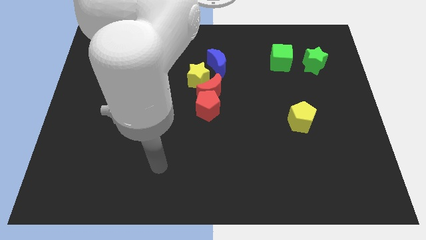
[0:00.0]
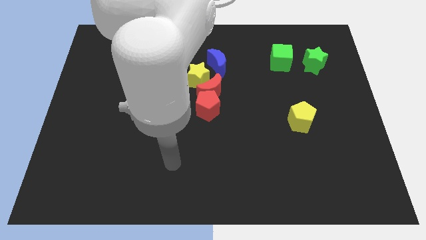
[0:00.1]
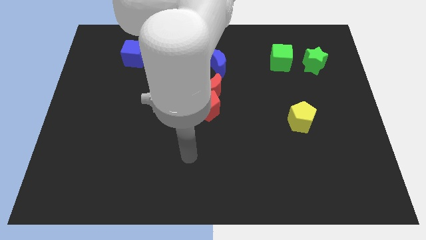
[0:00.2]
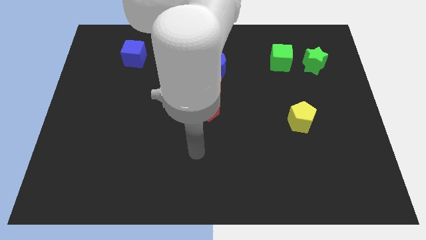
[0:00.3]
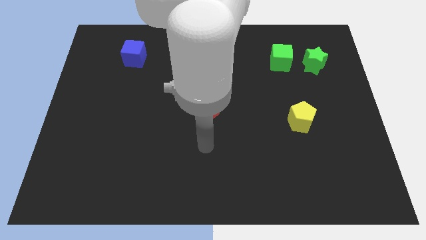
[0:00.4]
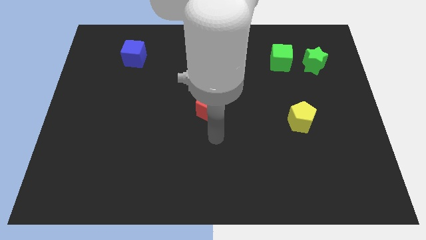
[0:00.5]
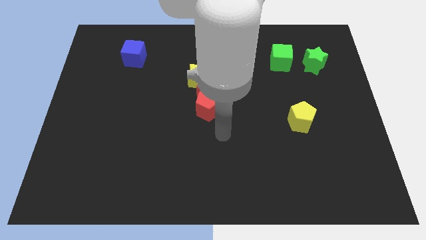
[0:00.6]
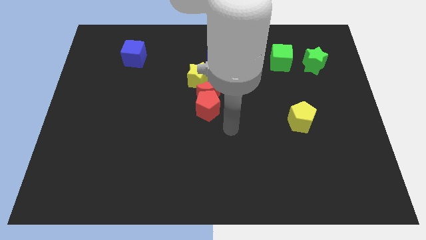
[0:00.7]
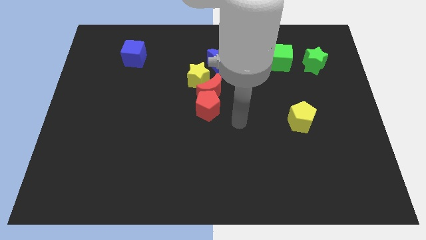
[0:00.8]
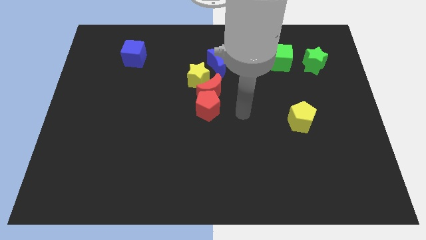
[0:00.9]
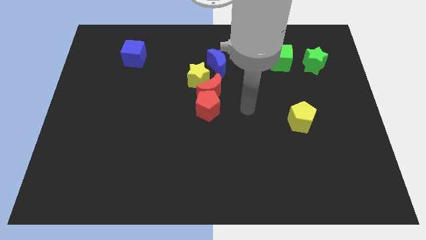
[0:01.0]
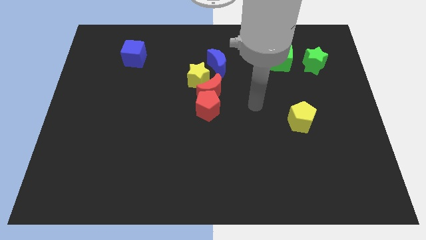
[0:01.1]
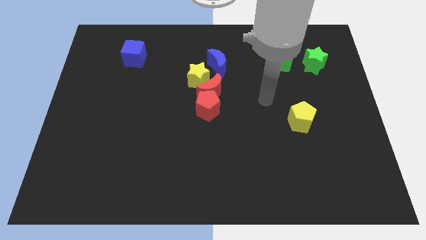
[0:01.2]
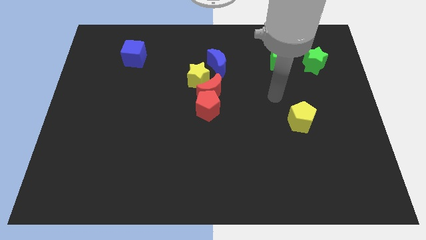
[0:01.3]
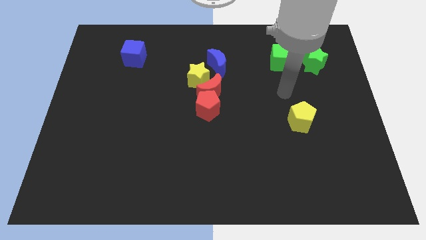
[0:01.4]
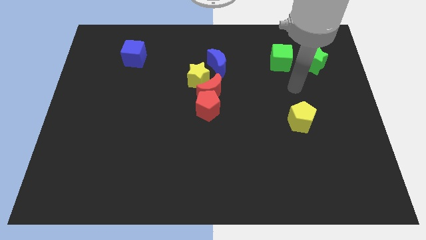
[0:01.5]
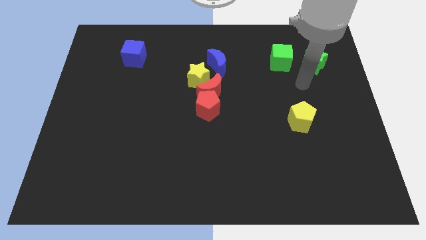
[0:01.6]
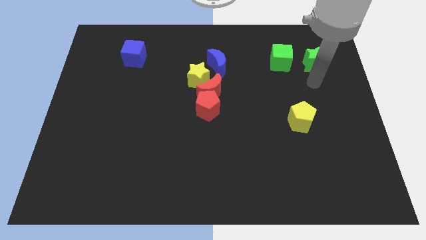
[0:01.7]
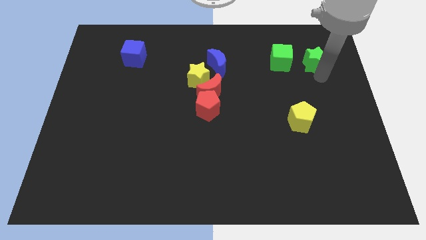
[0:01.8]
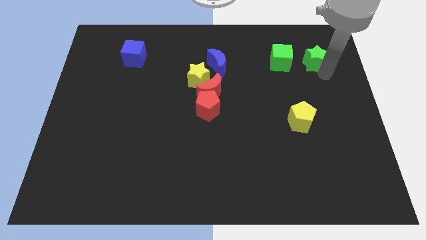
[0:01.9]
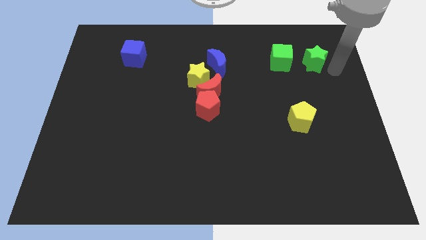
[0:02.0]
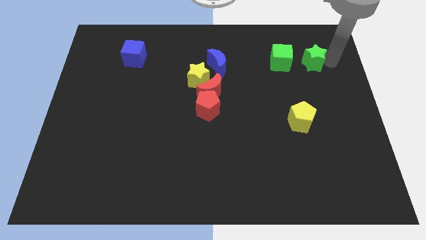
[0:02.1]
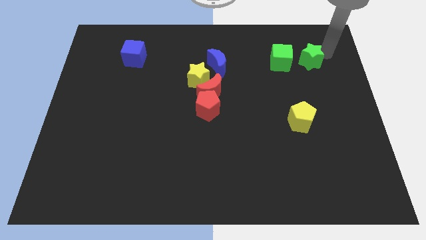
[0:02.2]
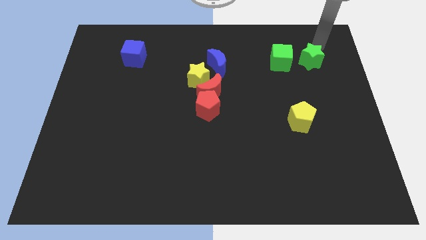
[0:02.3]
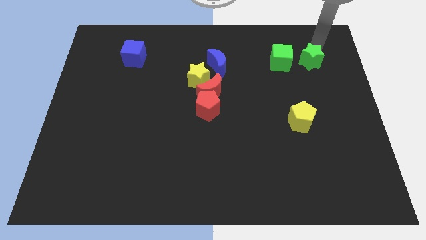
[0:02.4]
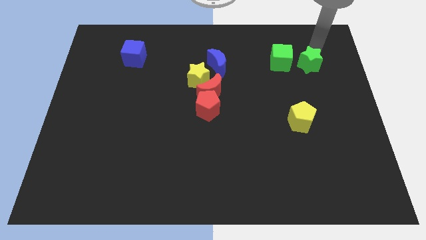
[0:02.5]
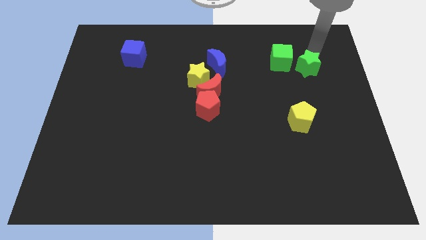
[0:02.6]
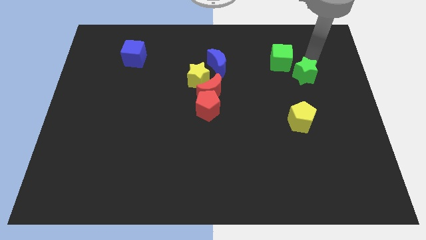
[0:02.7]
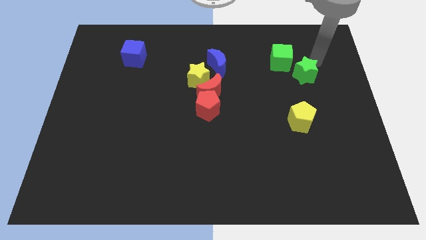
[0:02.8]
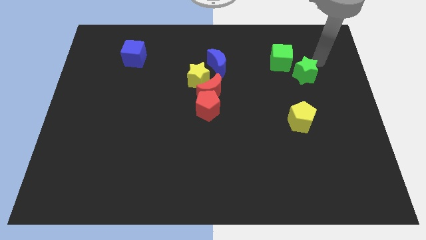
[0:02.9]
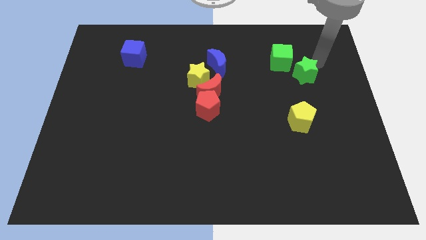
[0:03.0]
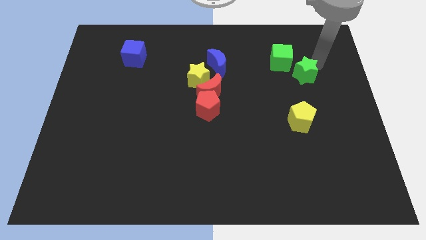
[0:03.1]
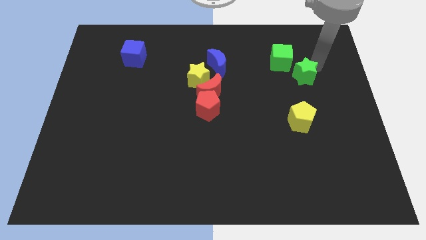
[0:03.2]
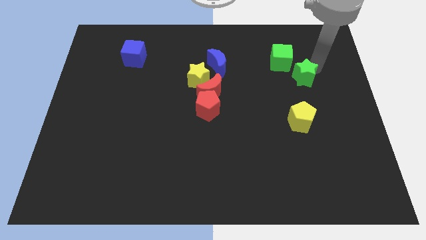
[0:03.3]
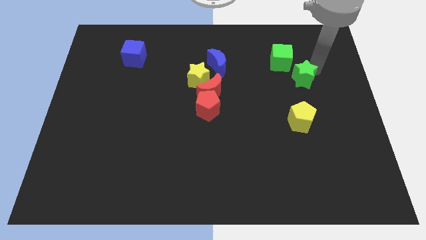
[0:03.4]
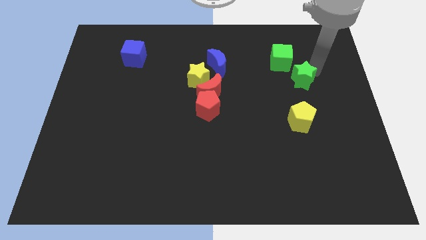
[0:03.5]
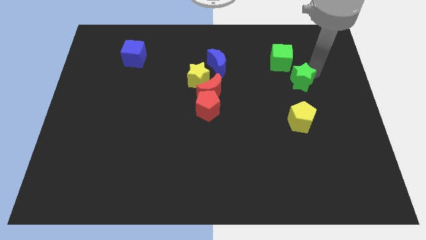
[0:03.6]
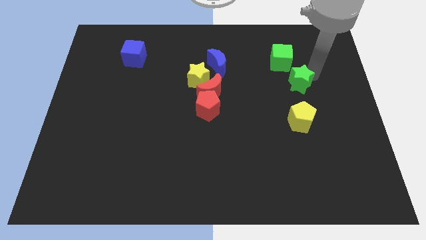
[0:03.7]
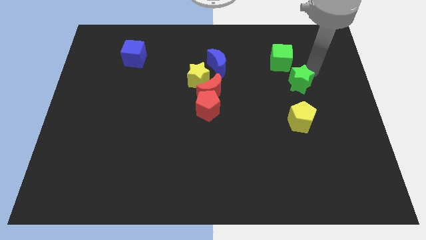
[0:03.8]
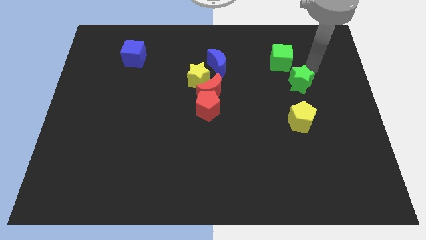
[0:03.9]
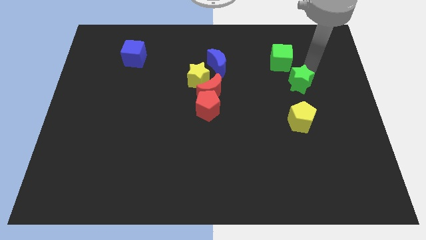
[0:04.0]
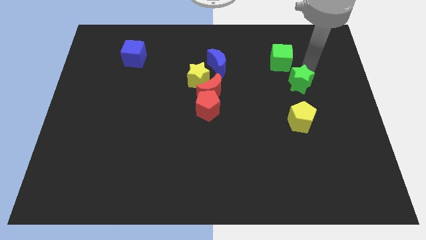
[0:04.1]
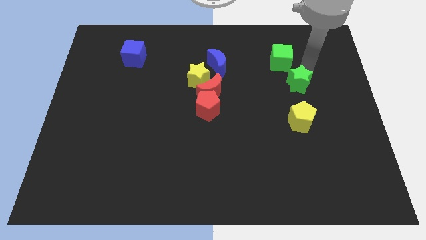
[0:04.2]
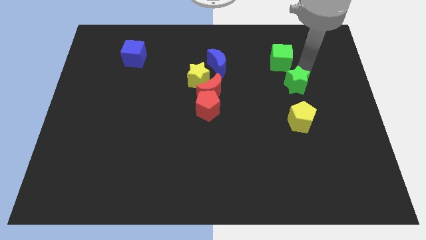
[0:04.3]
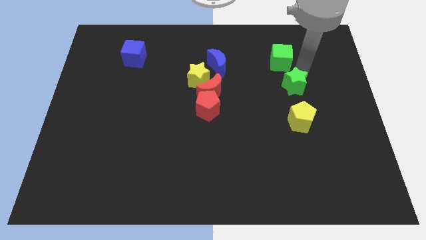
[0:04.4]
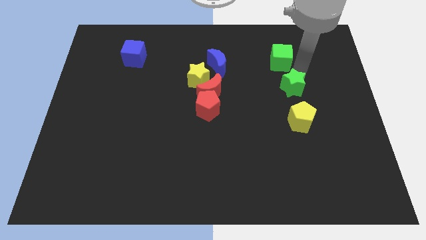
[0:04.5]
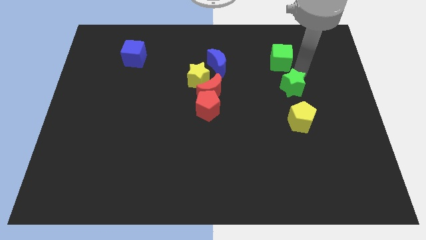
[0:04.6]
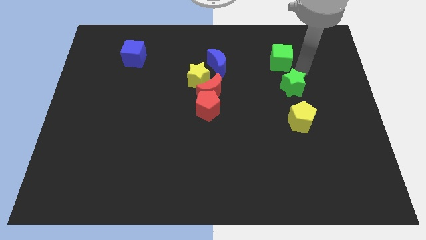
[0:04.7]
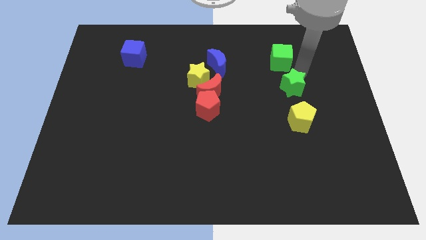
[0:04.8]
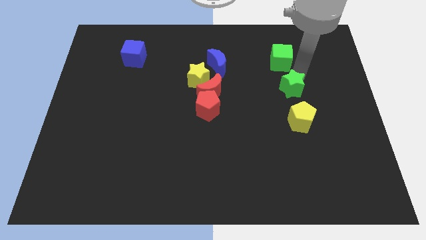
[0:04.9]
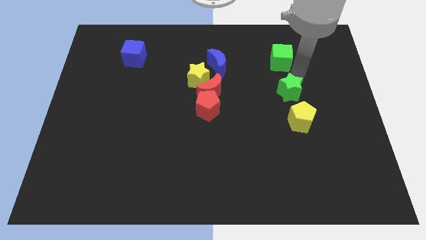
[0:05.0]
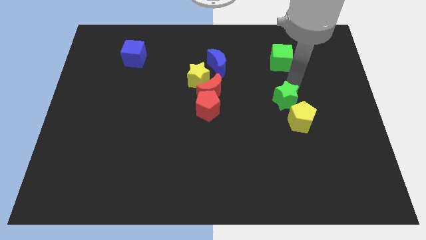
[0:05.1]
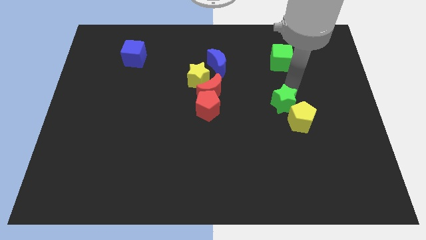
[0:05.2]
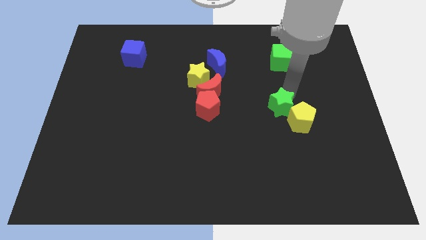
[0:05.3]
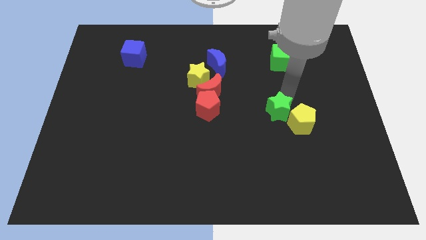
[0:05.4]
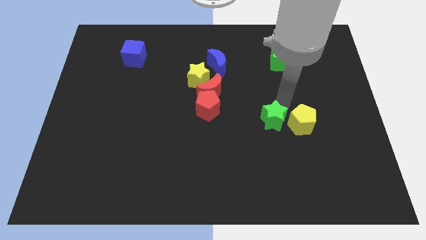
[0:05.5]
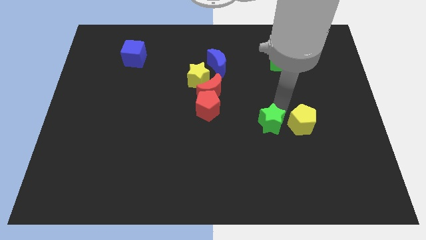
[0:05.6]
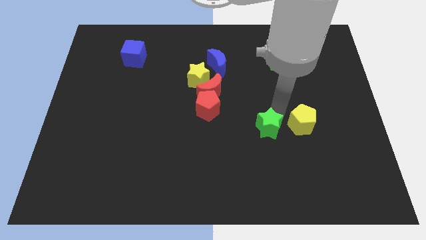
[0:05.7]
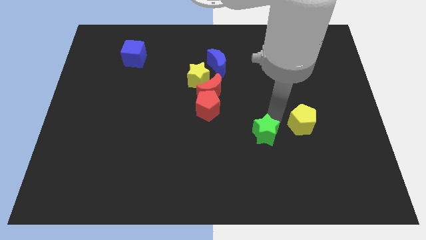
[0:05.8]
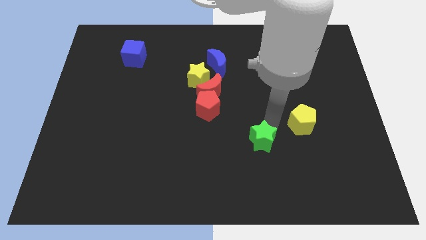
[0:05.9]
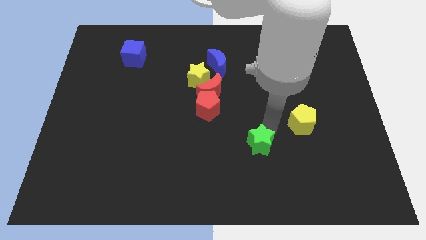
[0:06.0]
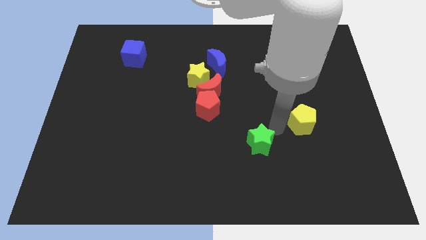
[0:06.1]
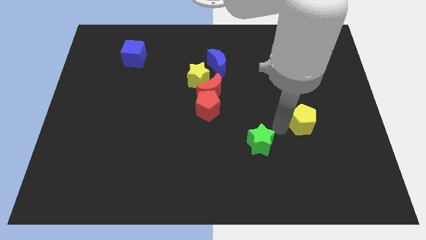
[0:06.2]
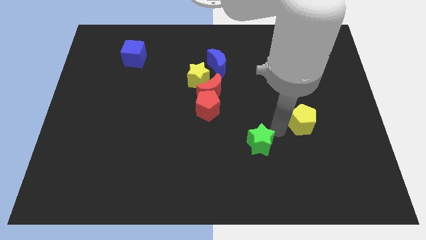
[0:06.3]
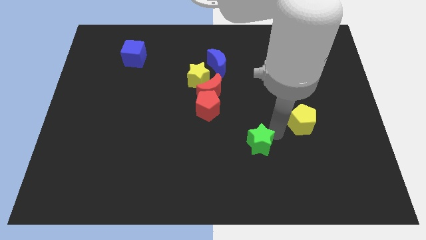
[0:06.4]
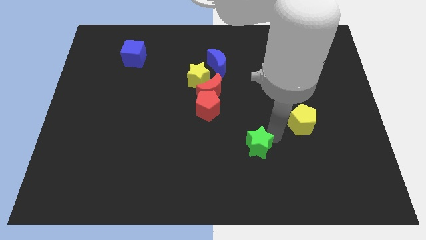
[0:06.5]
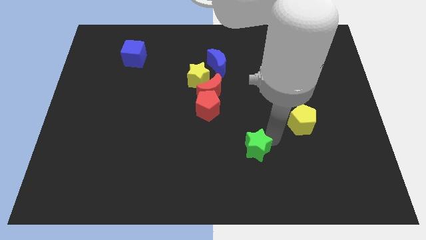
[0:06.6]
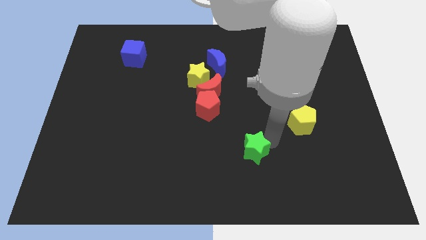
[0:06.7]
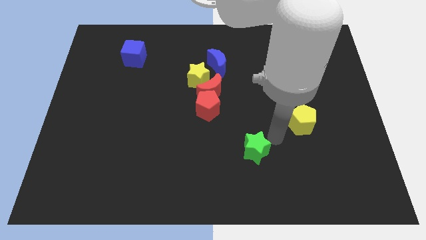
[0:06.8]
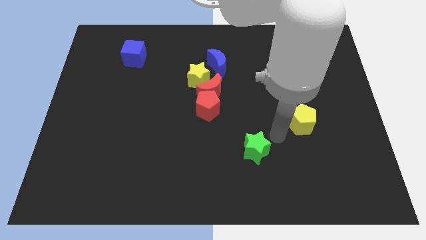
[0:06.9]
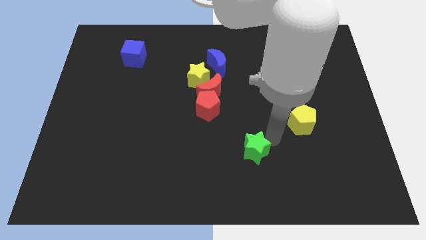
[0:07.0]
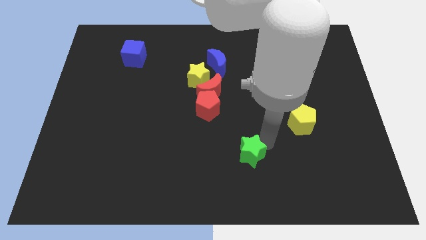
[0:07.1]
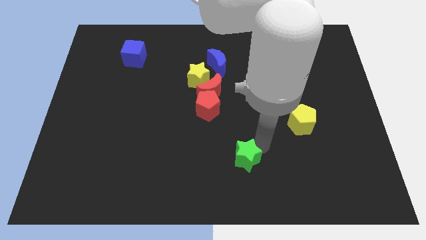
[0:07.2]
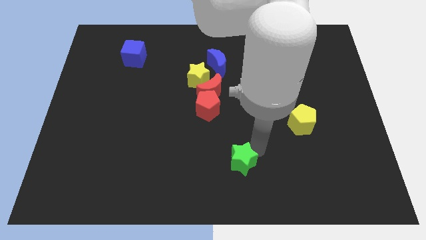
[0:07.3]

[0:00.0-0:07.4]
put the green star to the bottom
